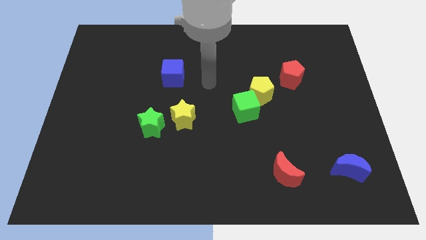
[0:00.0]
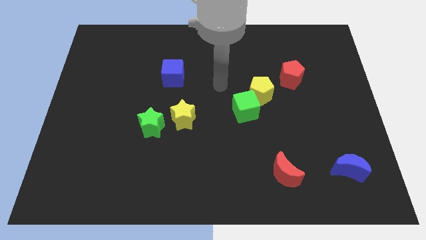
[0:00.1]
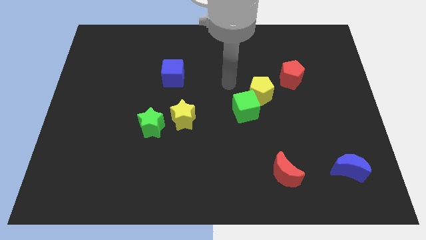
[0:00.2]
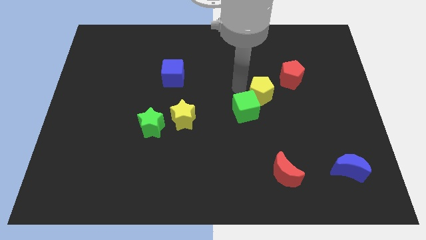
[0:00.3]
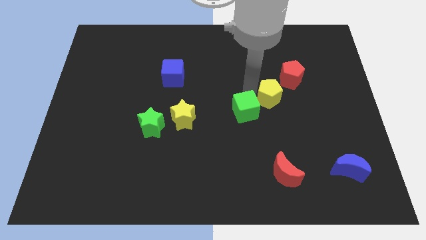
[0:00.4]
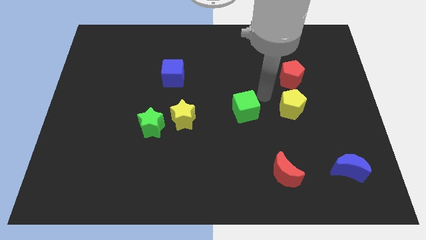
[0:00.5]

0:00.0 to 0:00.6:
pull the green cube apart from the yellow pentagon

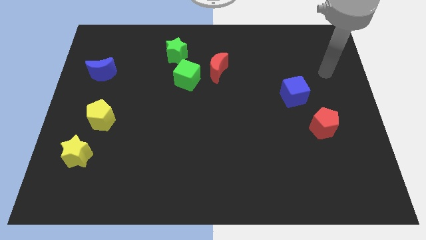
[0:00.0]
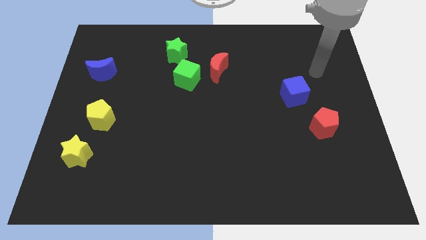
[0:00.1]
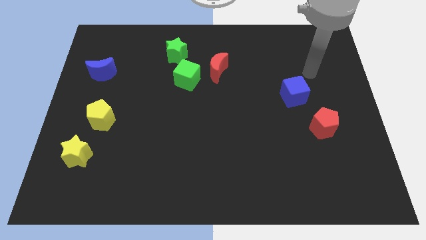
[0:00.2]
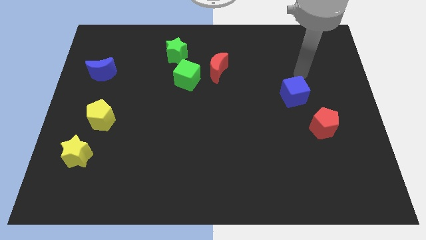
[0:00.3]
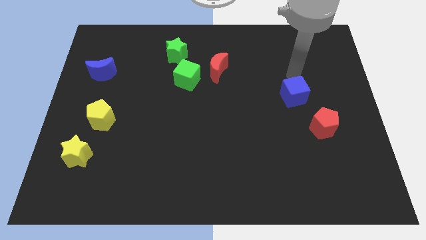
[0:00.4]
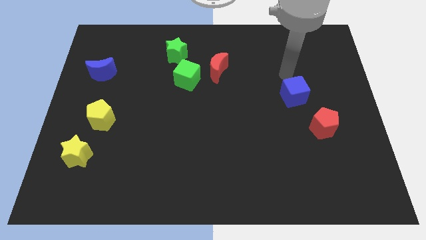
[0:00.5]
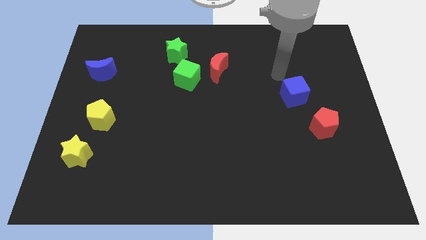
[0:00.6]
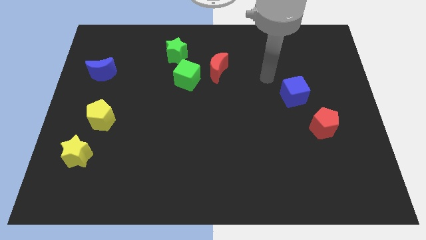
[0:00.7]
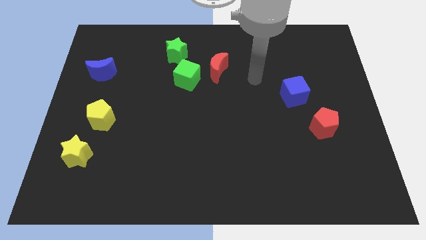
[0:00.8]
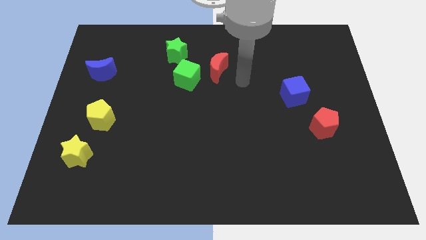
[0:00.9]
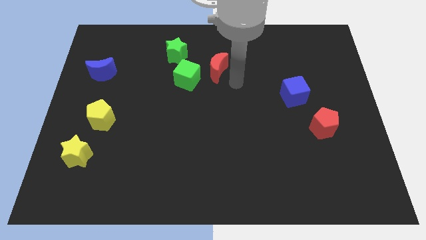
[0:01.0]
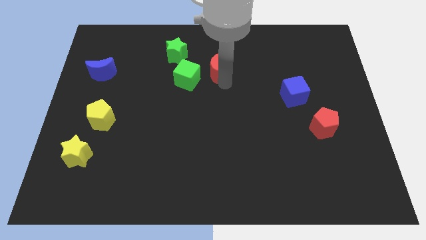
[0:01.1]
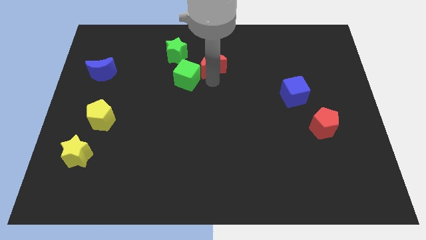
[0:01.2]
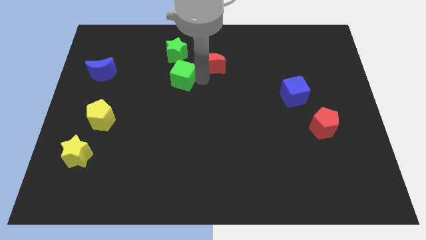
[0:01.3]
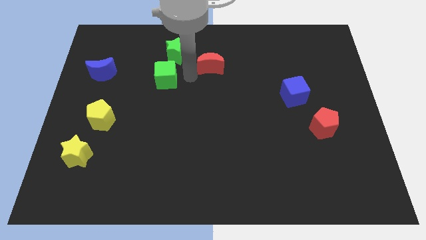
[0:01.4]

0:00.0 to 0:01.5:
separate the red moon from the green cube

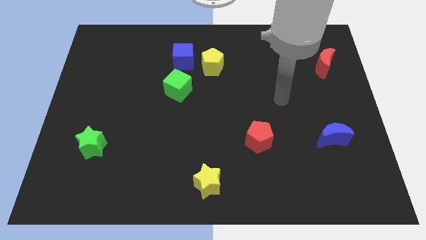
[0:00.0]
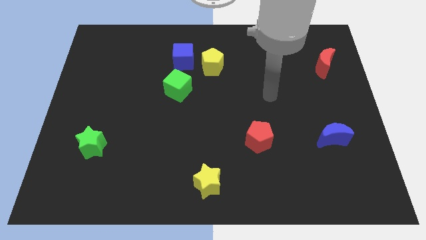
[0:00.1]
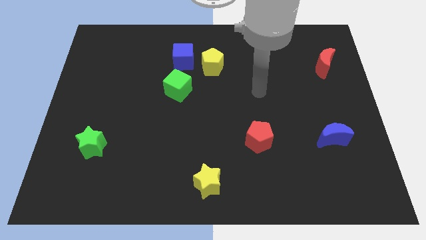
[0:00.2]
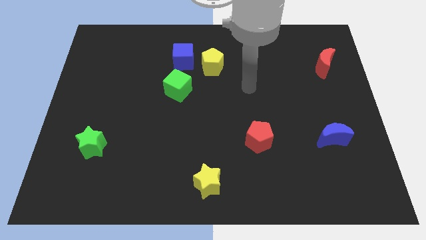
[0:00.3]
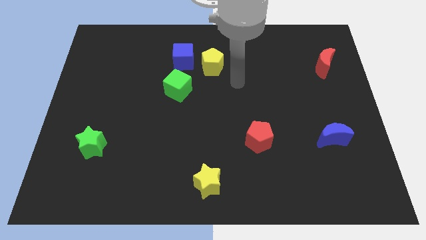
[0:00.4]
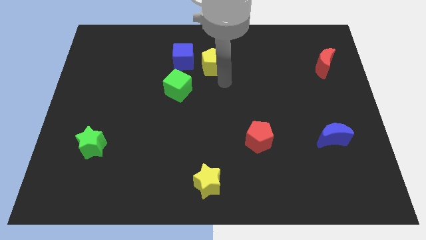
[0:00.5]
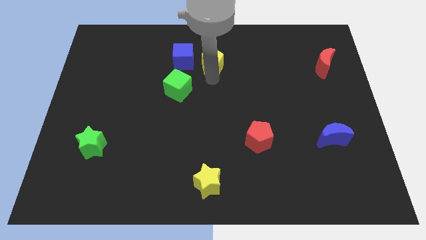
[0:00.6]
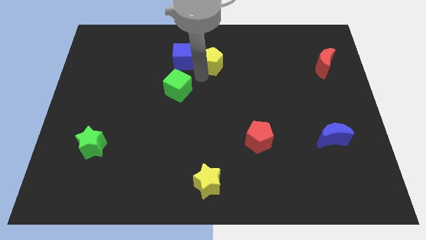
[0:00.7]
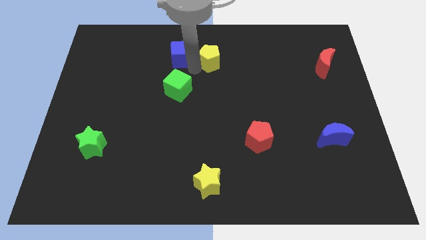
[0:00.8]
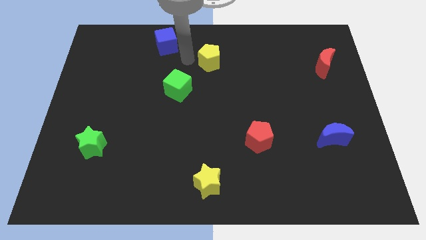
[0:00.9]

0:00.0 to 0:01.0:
separate the yellow pentagon from the blue cube

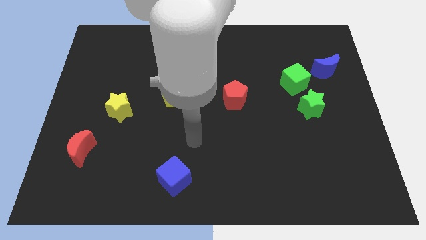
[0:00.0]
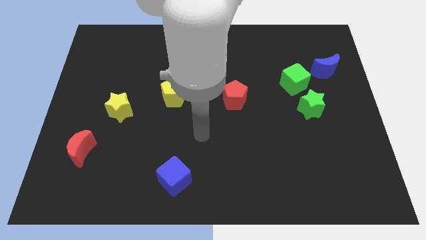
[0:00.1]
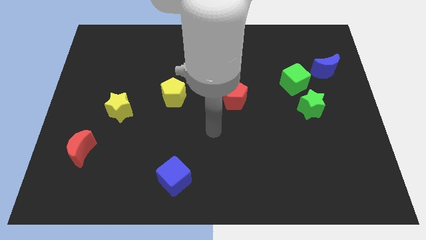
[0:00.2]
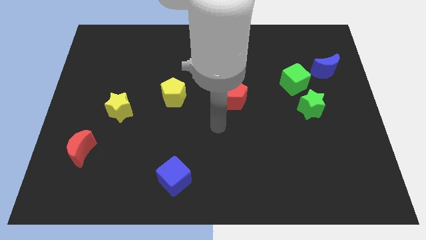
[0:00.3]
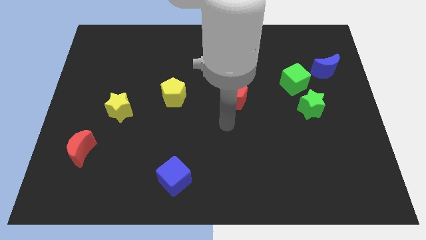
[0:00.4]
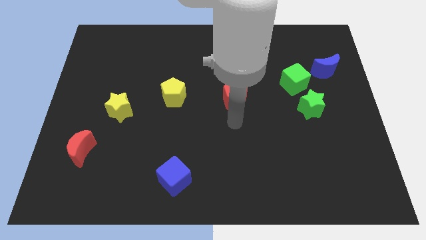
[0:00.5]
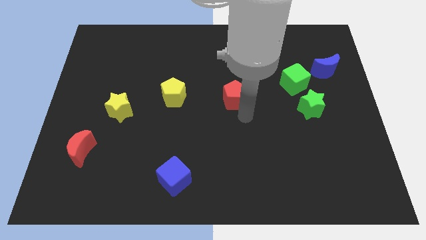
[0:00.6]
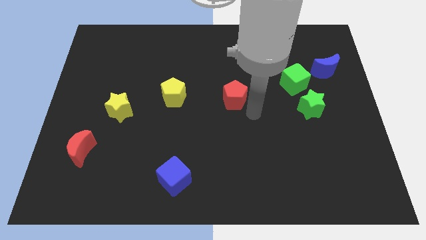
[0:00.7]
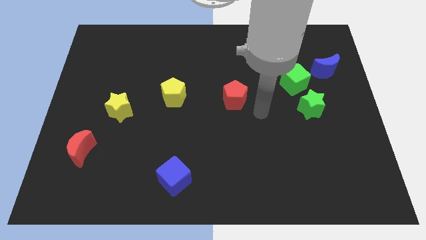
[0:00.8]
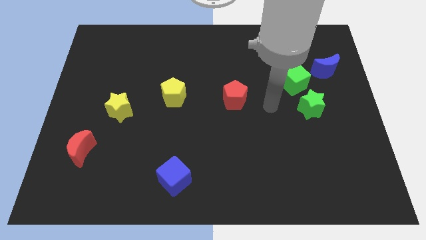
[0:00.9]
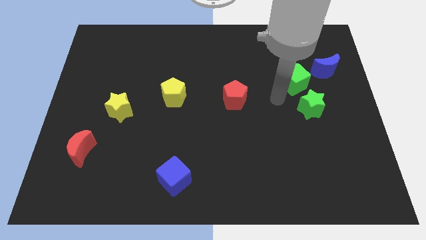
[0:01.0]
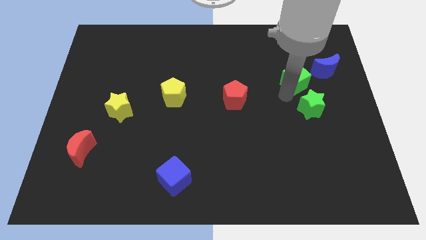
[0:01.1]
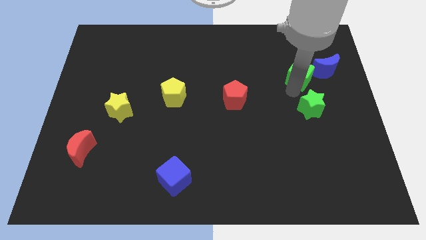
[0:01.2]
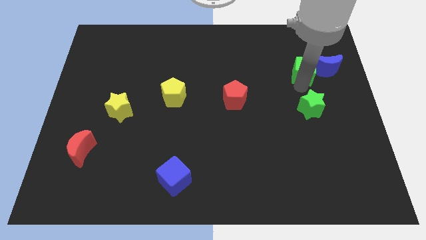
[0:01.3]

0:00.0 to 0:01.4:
move the green star away from the green cube

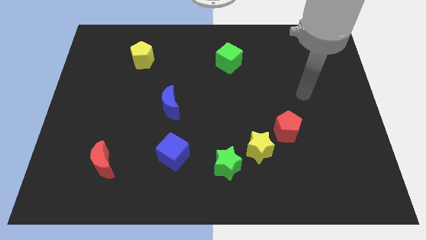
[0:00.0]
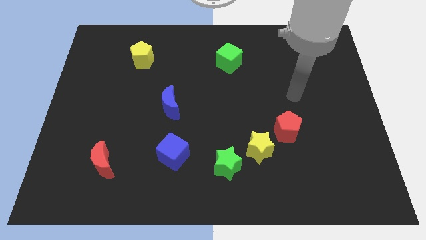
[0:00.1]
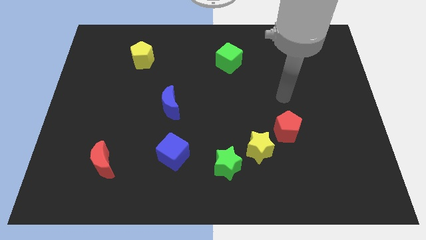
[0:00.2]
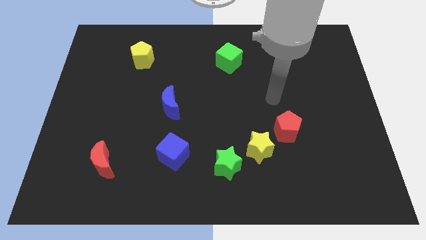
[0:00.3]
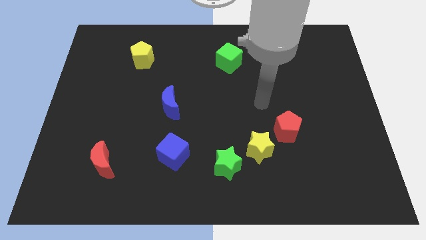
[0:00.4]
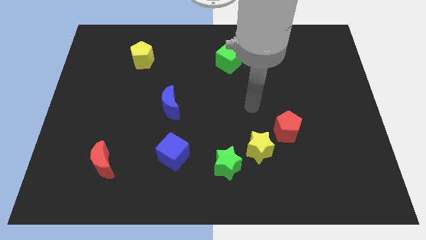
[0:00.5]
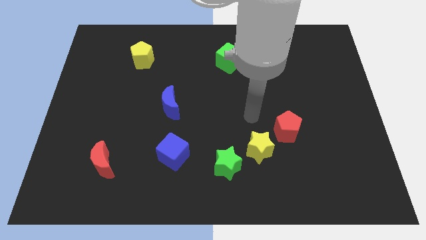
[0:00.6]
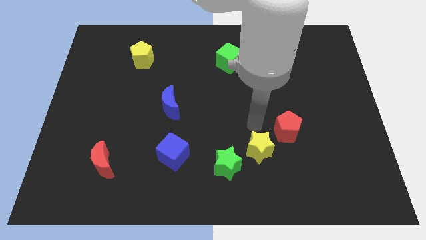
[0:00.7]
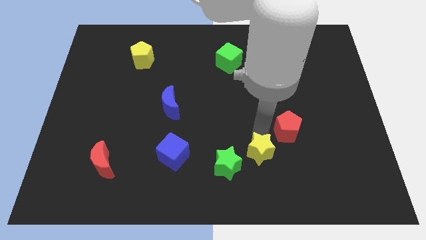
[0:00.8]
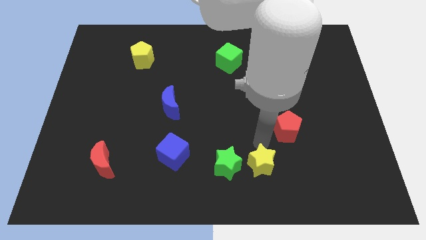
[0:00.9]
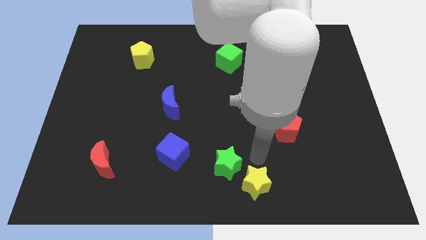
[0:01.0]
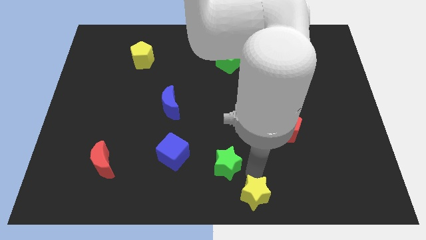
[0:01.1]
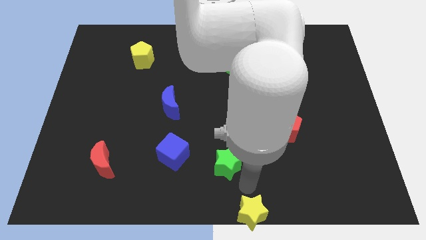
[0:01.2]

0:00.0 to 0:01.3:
move the green star away from the yellow star

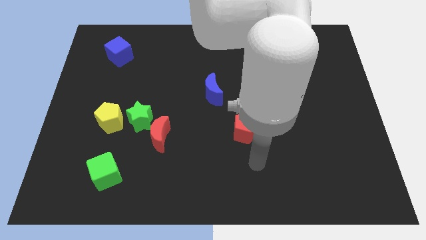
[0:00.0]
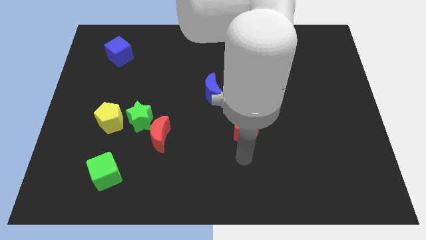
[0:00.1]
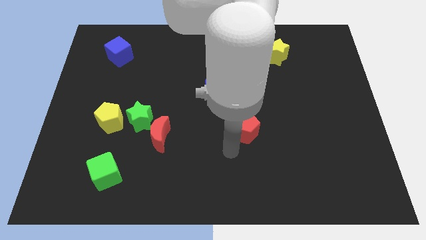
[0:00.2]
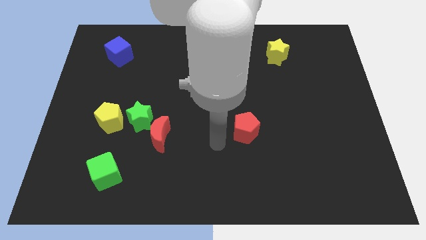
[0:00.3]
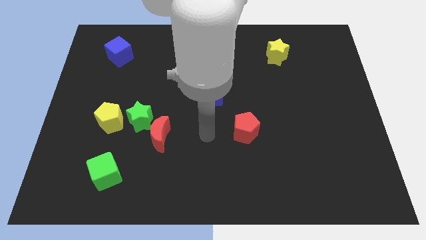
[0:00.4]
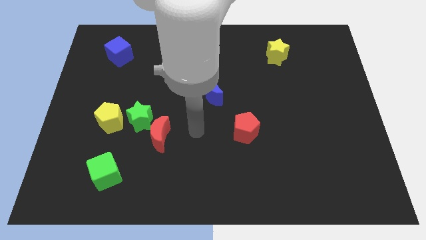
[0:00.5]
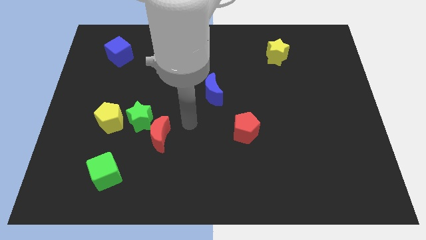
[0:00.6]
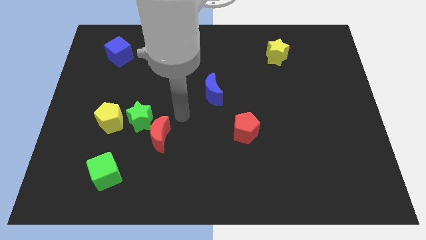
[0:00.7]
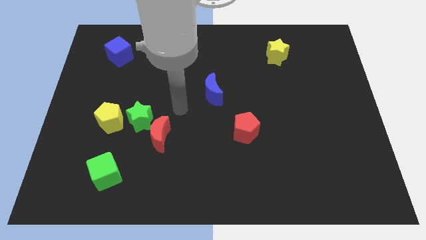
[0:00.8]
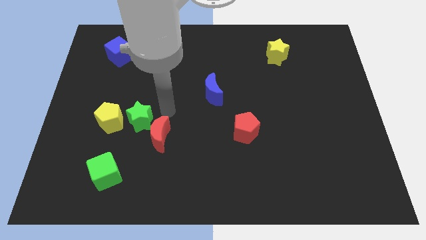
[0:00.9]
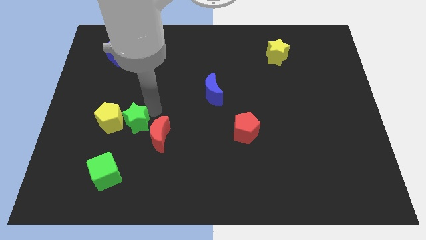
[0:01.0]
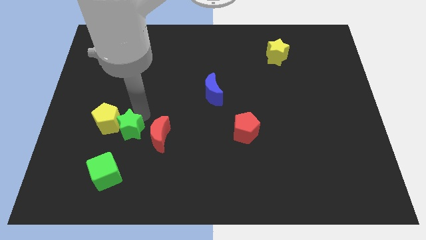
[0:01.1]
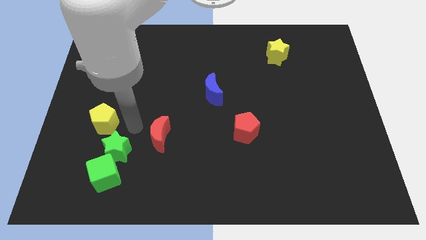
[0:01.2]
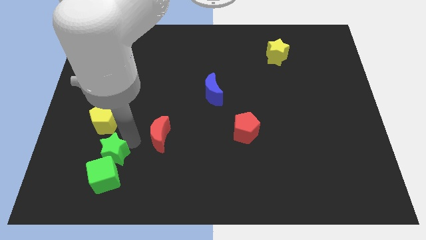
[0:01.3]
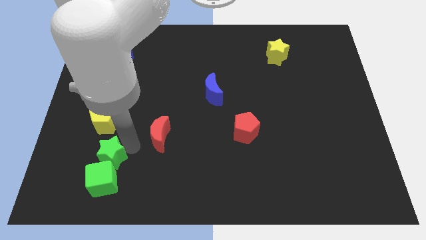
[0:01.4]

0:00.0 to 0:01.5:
pull the red moon apart from the green star

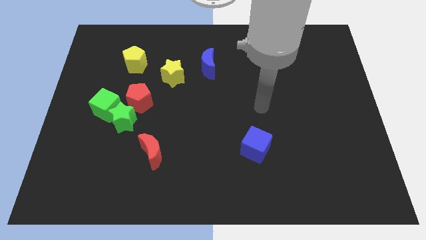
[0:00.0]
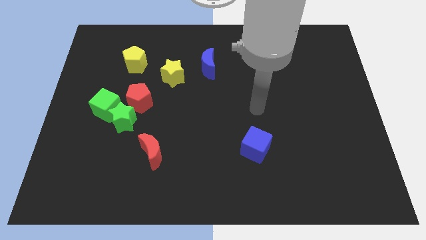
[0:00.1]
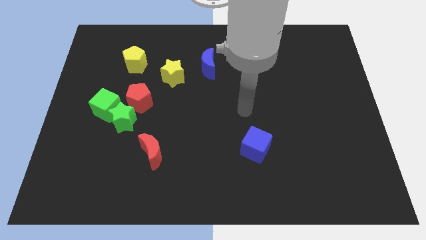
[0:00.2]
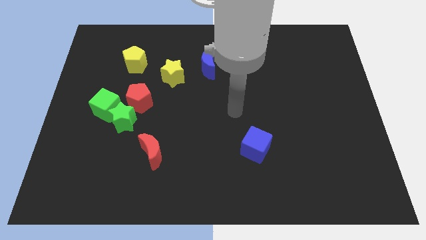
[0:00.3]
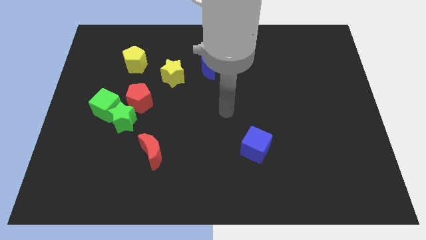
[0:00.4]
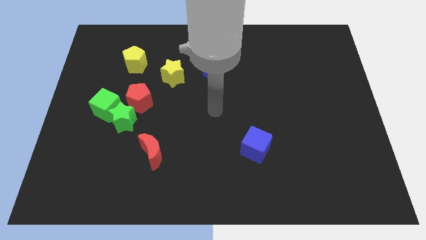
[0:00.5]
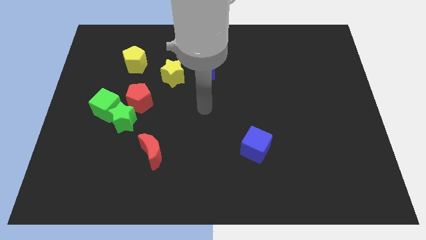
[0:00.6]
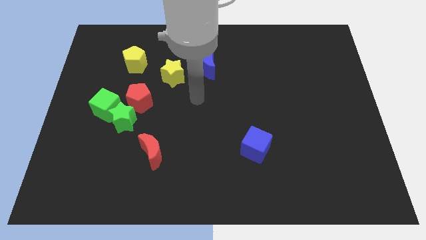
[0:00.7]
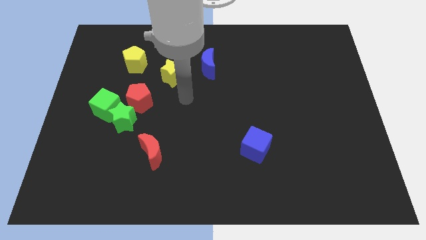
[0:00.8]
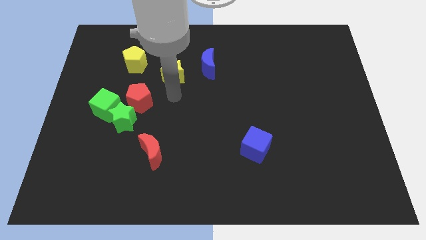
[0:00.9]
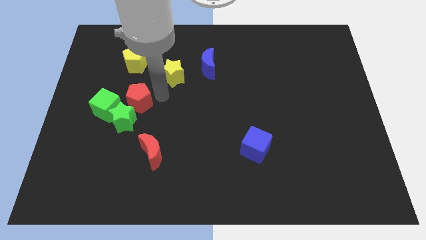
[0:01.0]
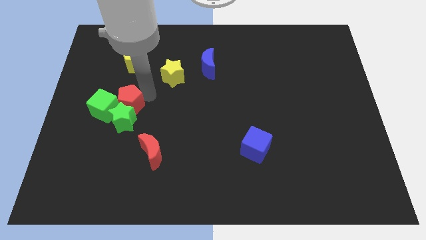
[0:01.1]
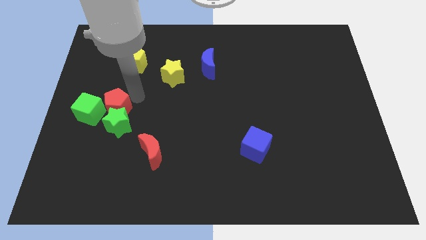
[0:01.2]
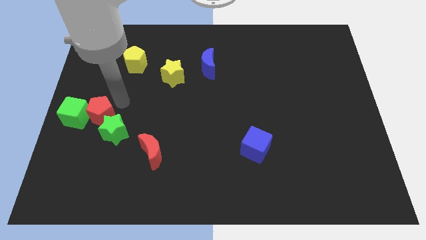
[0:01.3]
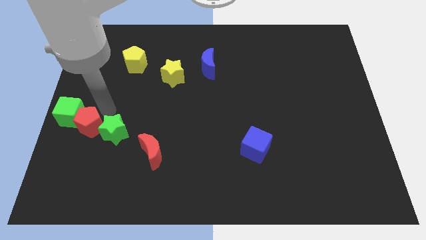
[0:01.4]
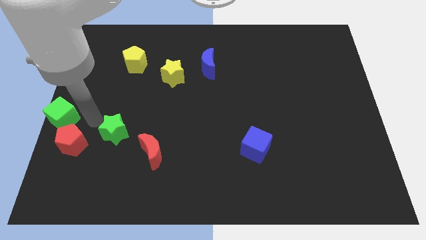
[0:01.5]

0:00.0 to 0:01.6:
separate the green star from the green cube and red pentagon

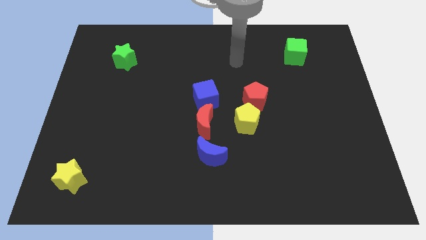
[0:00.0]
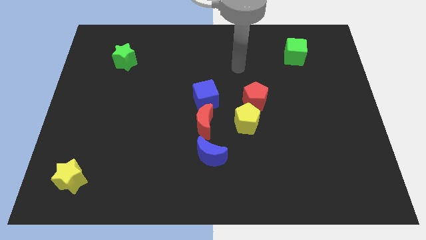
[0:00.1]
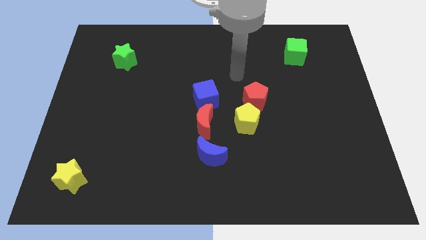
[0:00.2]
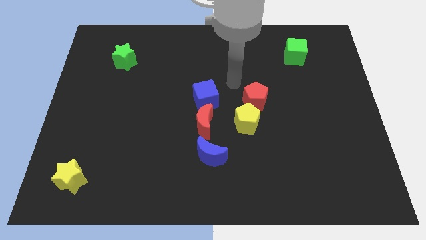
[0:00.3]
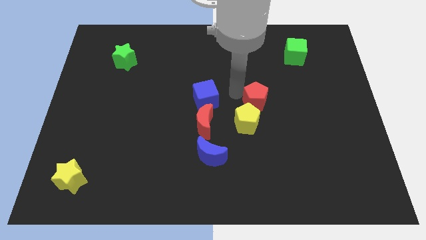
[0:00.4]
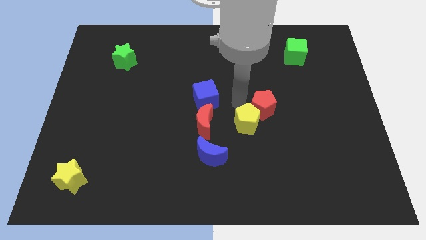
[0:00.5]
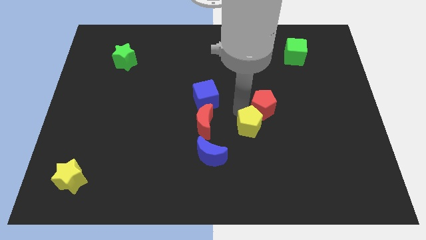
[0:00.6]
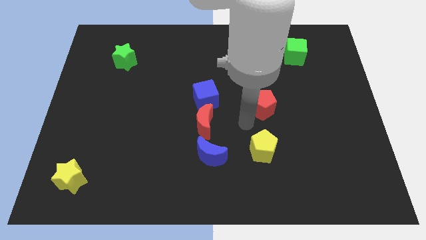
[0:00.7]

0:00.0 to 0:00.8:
separate the red pentagon from the yellow pentagon
